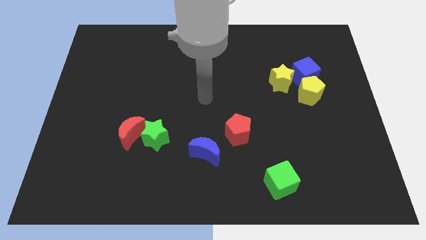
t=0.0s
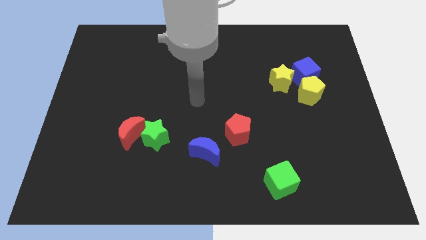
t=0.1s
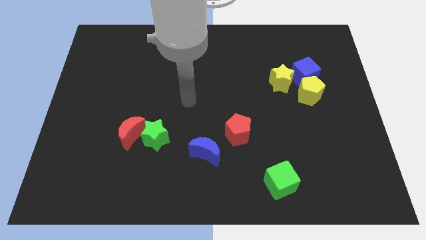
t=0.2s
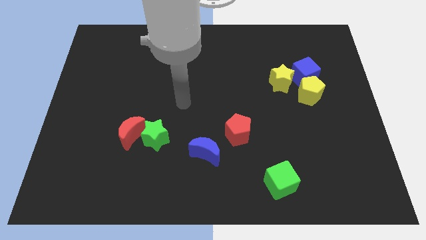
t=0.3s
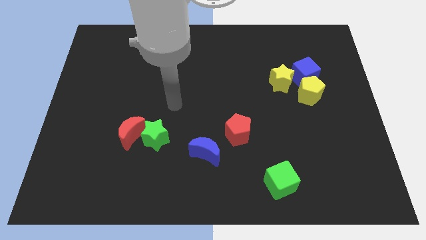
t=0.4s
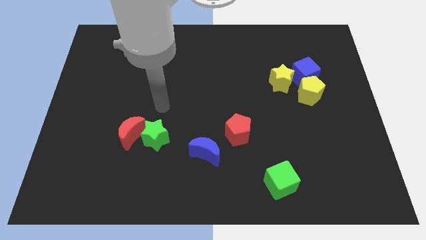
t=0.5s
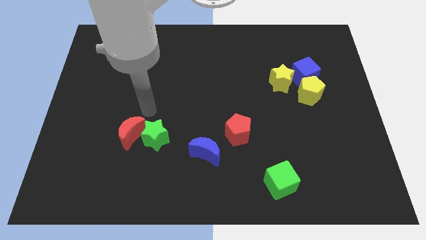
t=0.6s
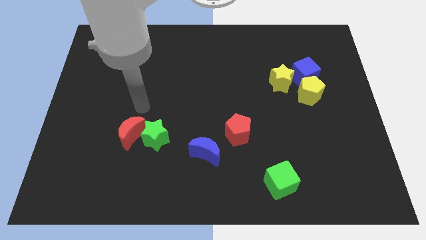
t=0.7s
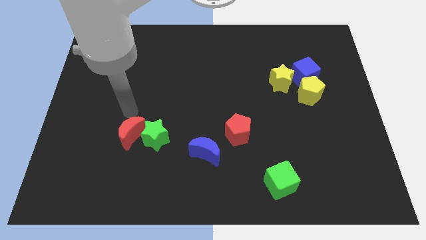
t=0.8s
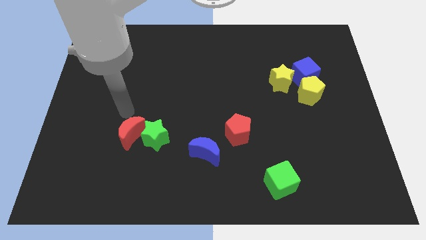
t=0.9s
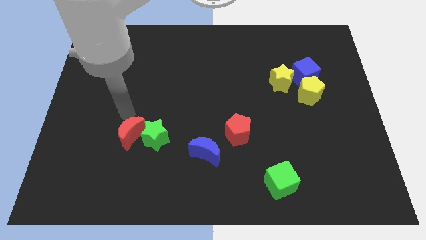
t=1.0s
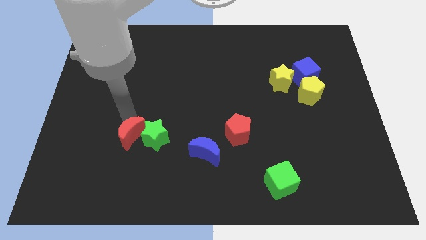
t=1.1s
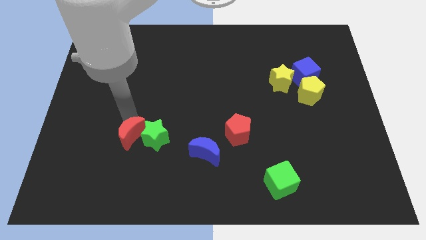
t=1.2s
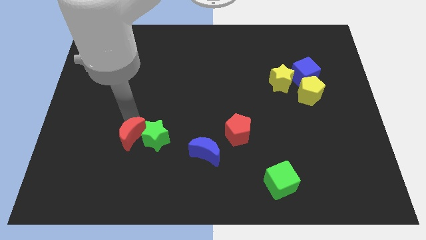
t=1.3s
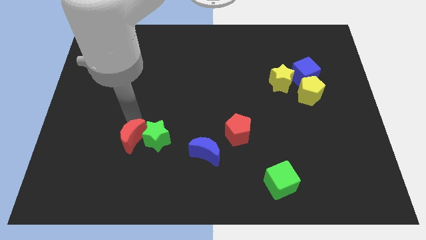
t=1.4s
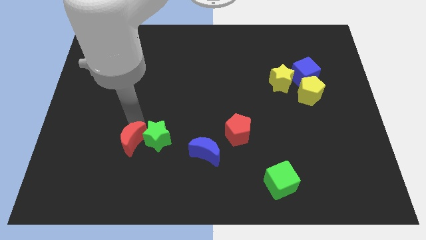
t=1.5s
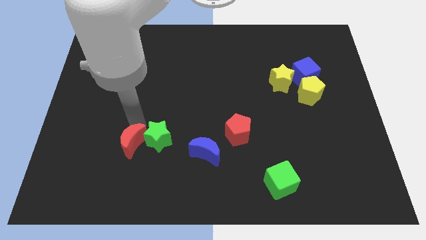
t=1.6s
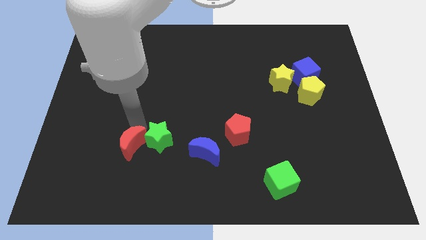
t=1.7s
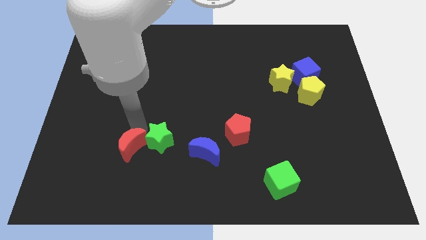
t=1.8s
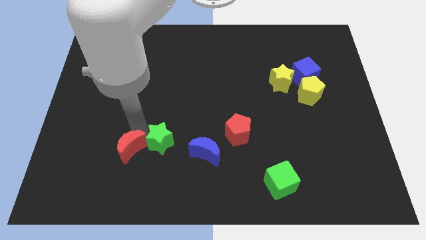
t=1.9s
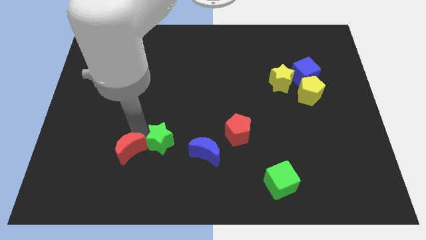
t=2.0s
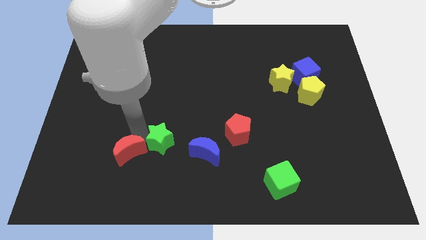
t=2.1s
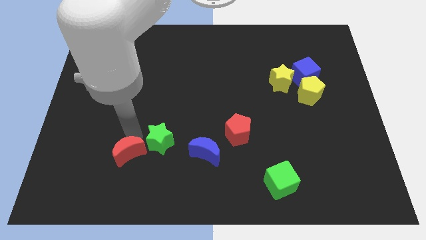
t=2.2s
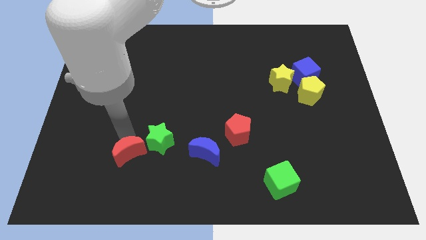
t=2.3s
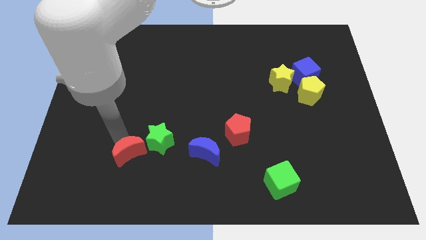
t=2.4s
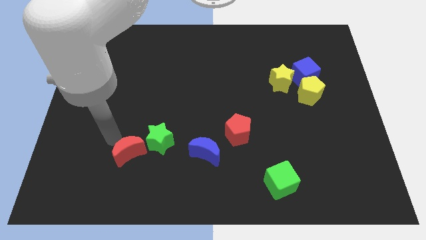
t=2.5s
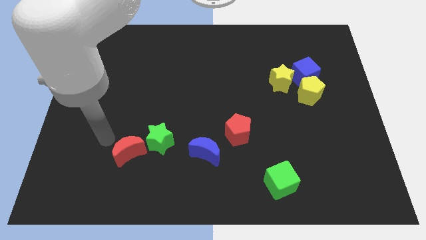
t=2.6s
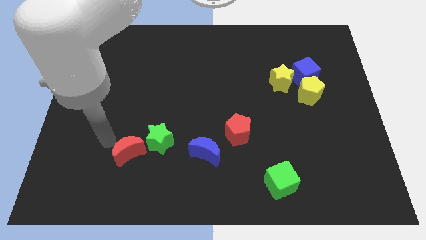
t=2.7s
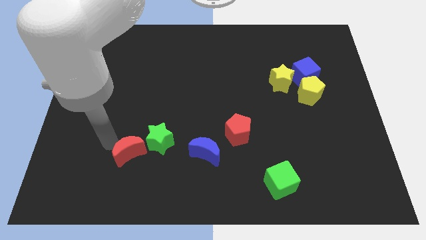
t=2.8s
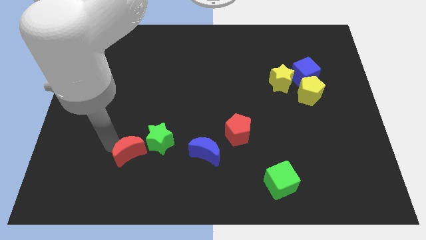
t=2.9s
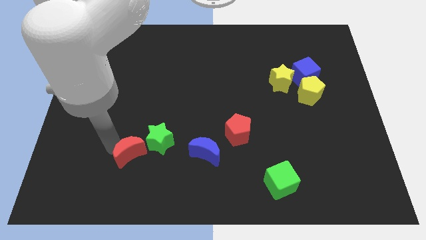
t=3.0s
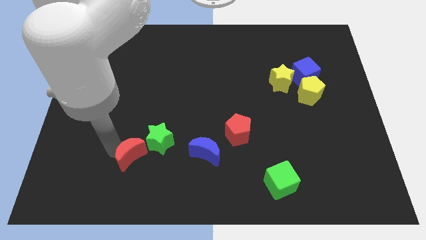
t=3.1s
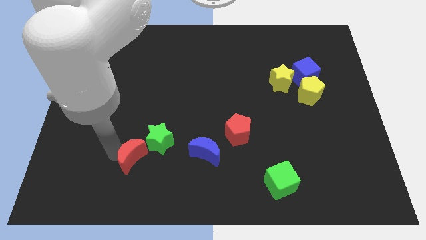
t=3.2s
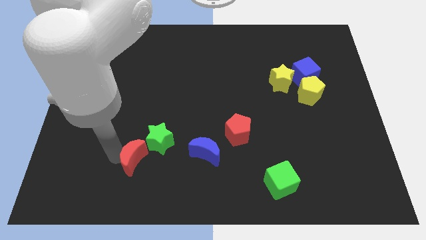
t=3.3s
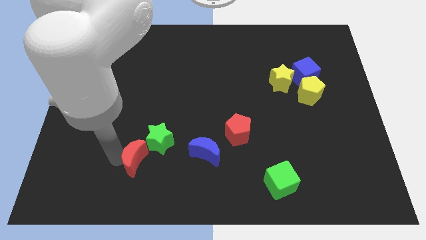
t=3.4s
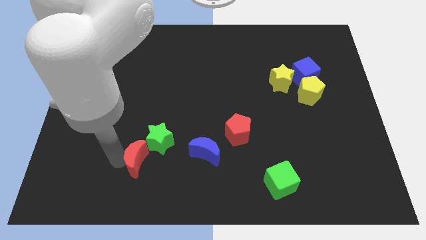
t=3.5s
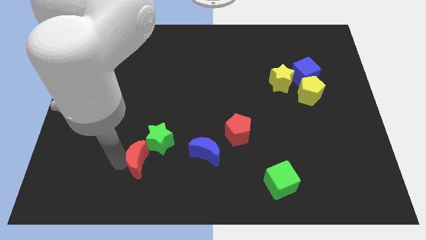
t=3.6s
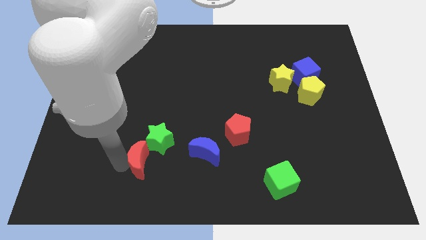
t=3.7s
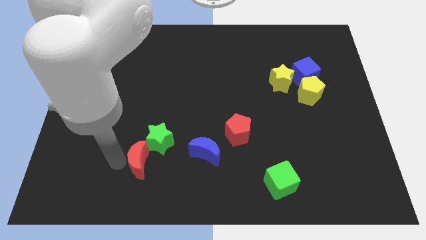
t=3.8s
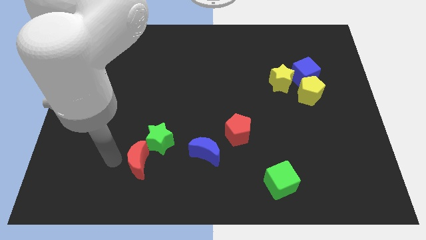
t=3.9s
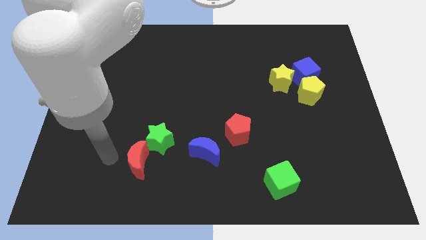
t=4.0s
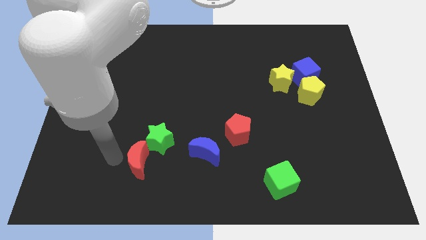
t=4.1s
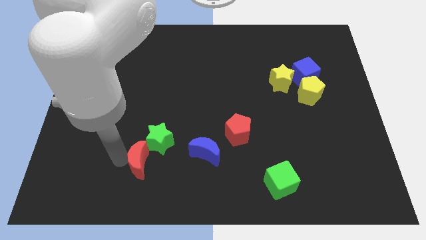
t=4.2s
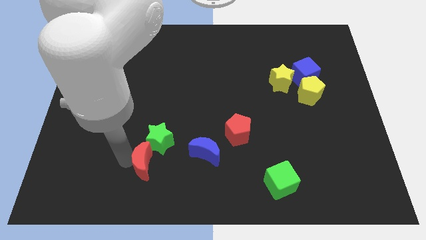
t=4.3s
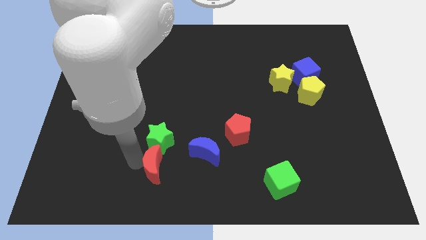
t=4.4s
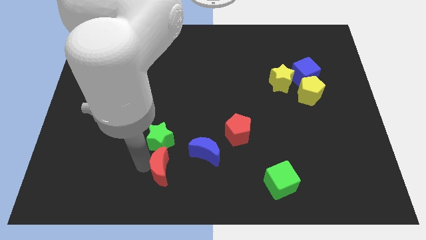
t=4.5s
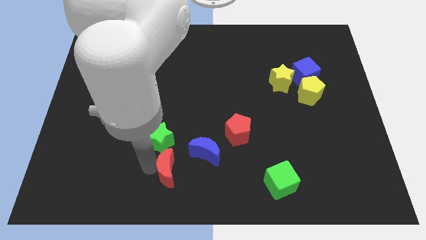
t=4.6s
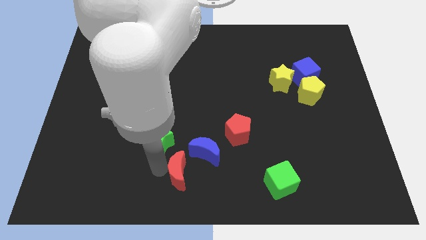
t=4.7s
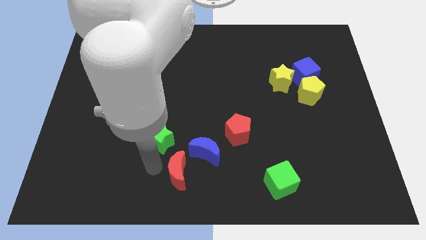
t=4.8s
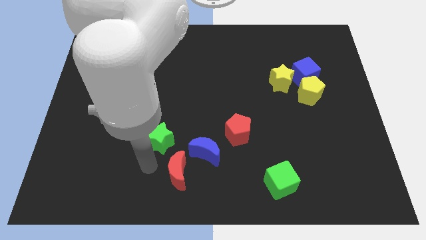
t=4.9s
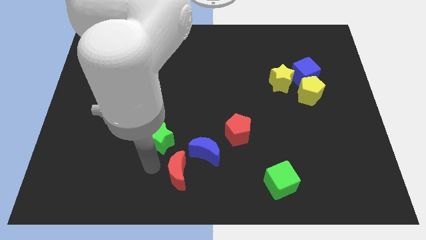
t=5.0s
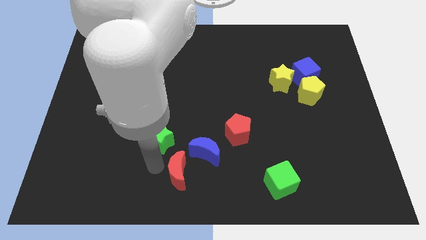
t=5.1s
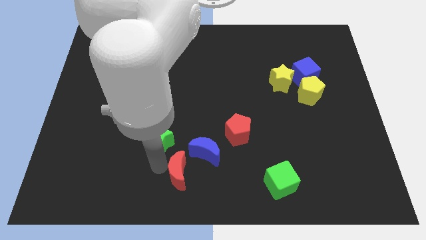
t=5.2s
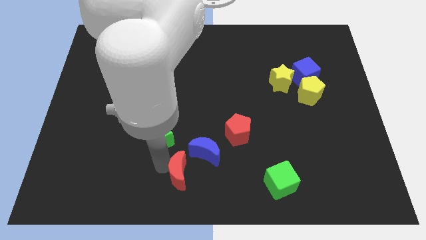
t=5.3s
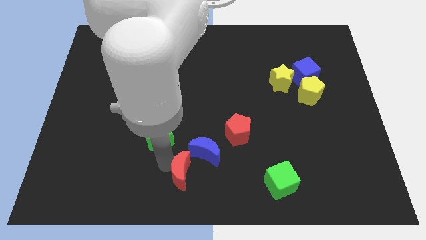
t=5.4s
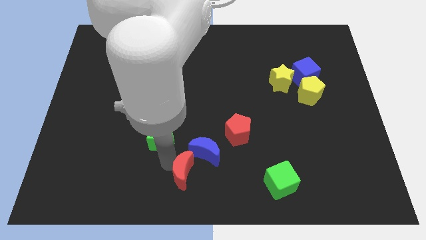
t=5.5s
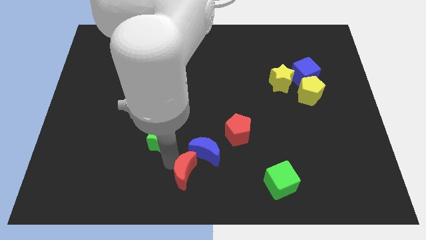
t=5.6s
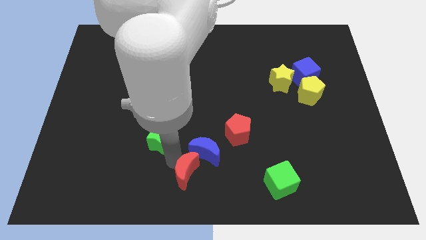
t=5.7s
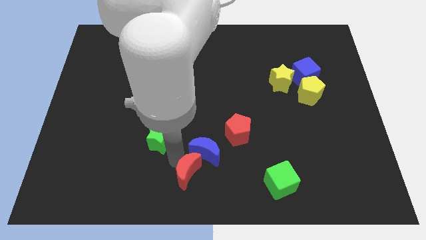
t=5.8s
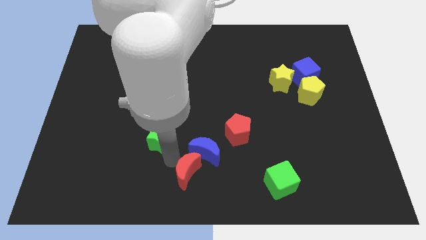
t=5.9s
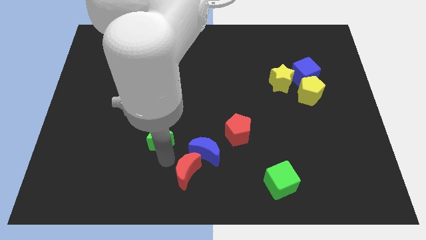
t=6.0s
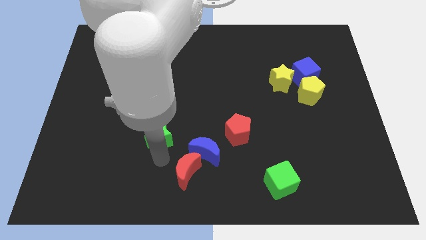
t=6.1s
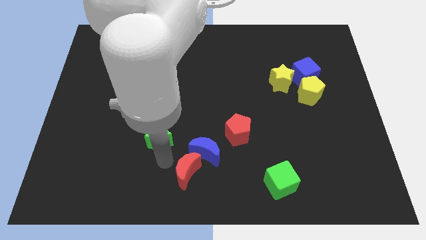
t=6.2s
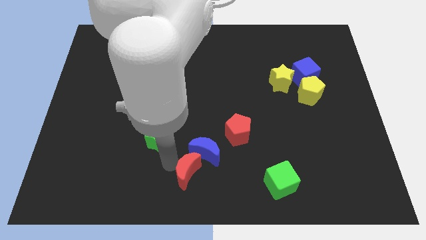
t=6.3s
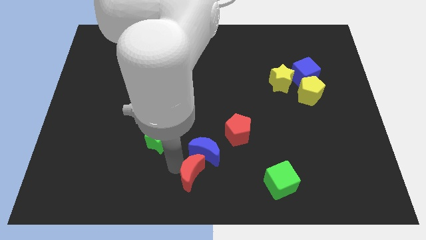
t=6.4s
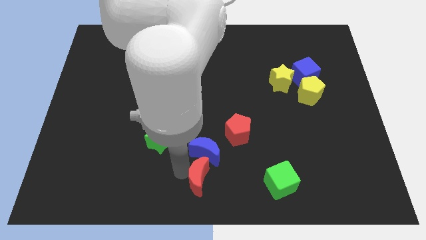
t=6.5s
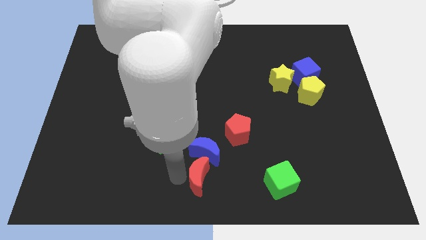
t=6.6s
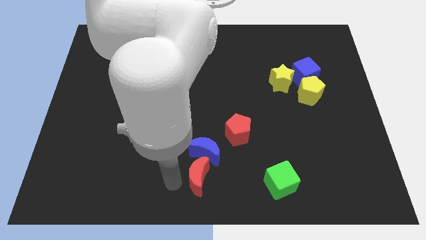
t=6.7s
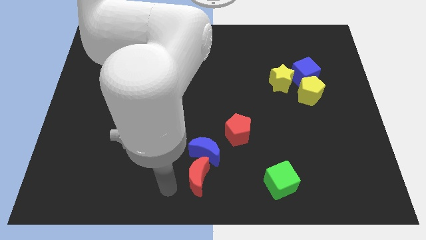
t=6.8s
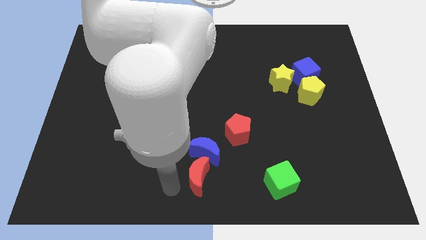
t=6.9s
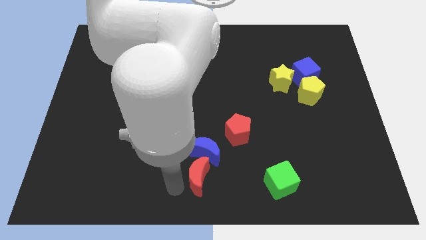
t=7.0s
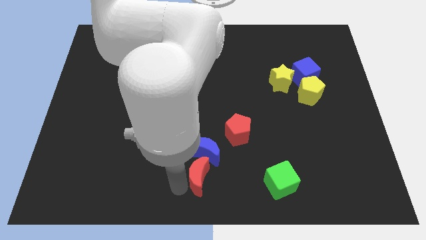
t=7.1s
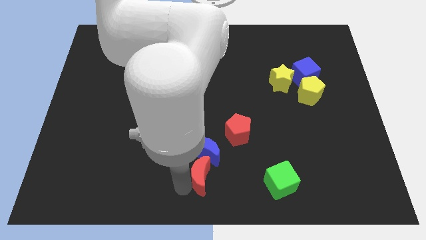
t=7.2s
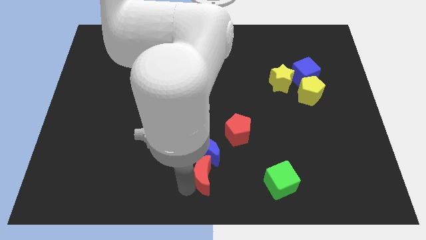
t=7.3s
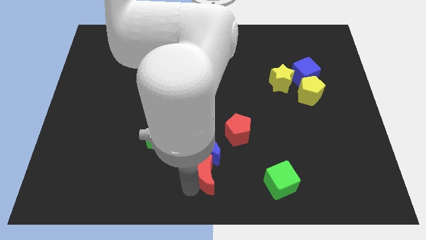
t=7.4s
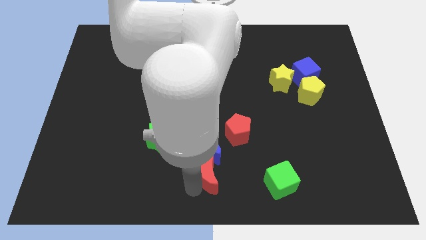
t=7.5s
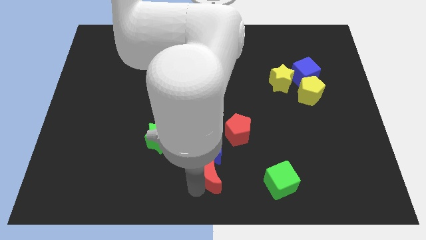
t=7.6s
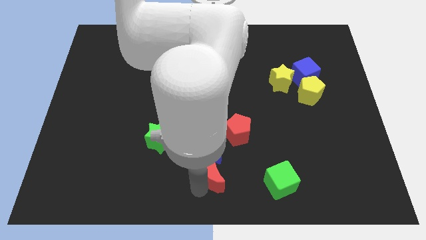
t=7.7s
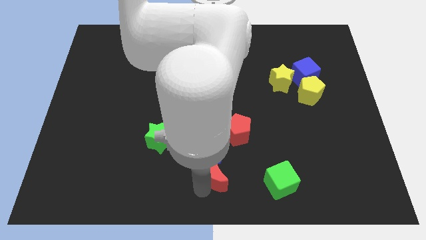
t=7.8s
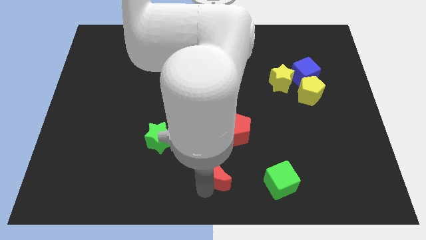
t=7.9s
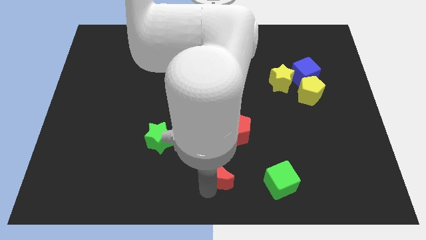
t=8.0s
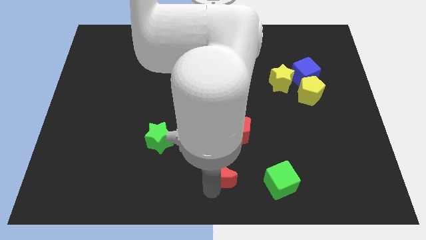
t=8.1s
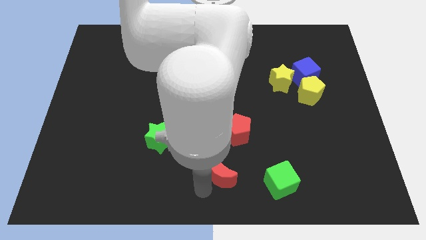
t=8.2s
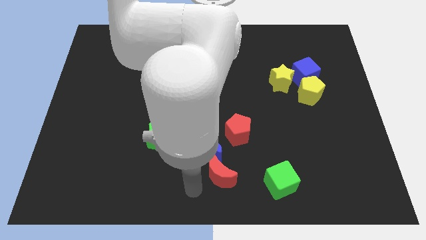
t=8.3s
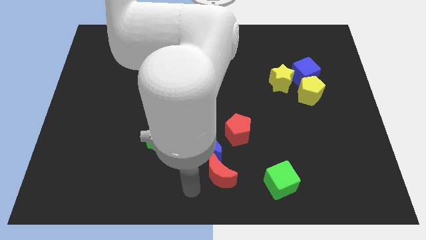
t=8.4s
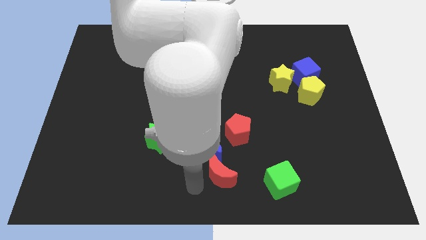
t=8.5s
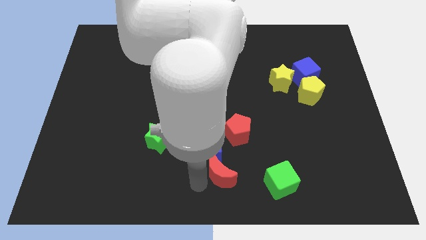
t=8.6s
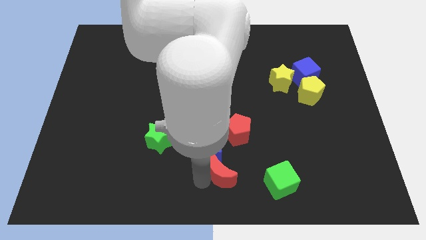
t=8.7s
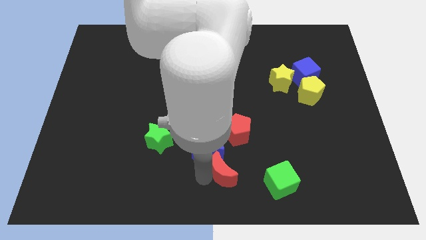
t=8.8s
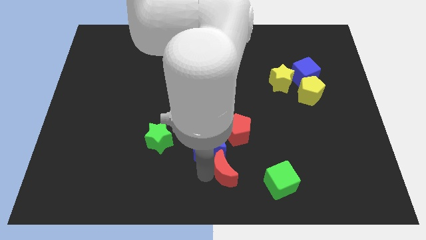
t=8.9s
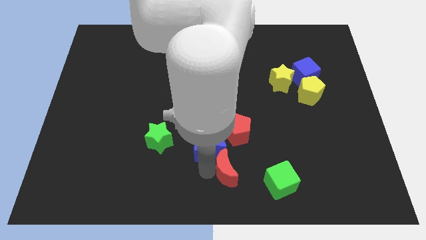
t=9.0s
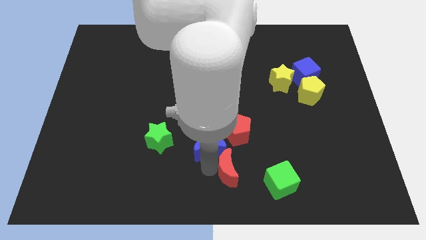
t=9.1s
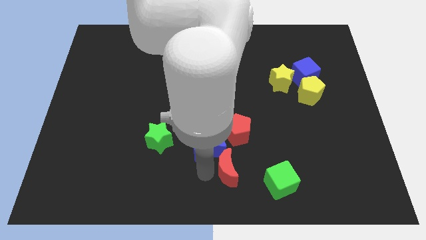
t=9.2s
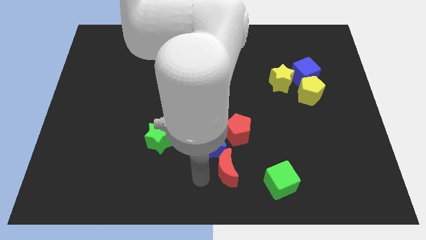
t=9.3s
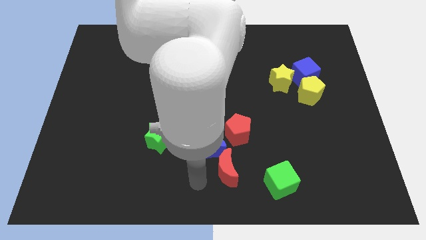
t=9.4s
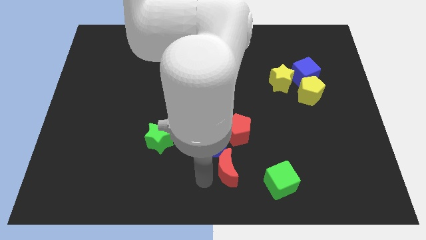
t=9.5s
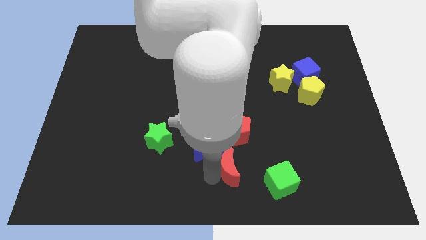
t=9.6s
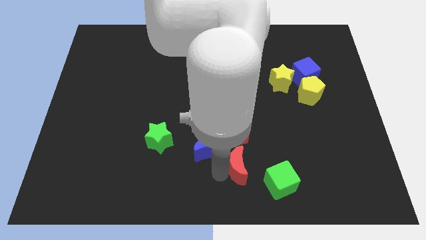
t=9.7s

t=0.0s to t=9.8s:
put the red moon to the top left side of the green cube
